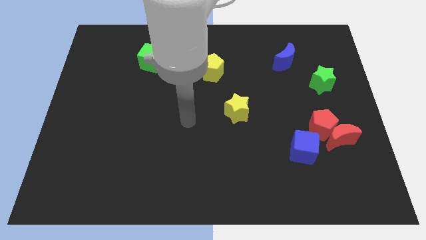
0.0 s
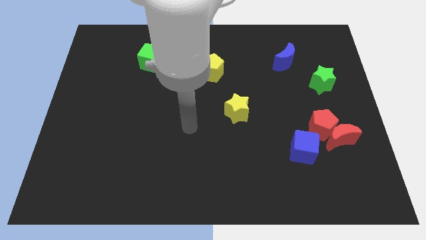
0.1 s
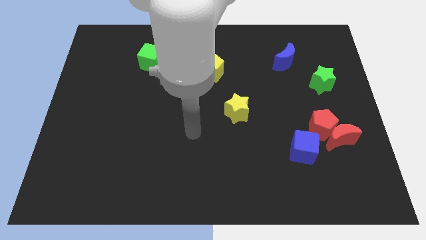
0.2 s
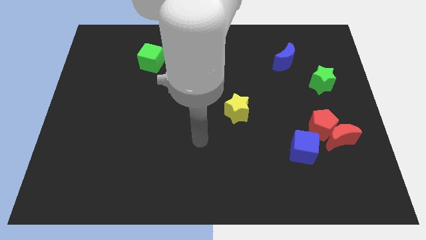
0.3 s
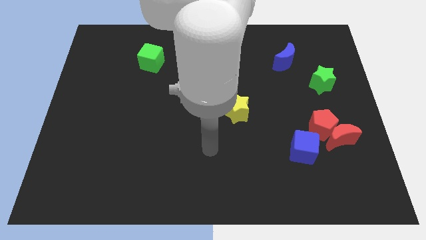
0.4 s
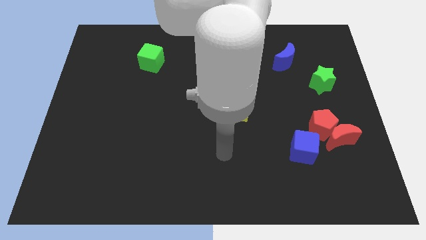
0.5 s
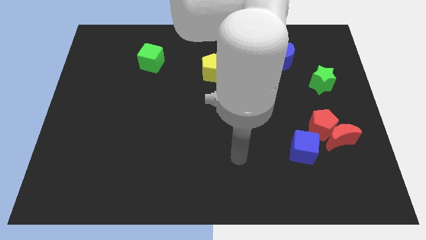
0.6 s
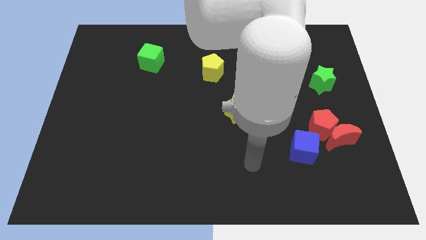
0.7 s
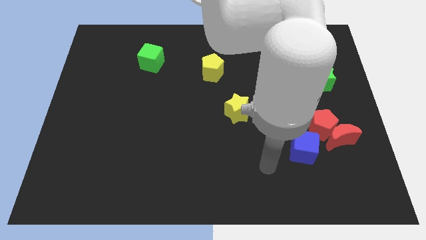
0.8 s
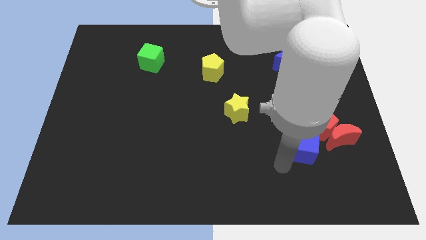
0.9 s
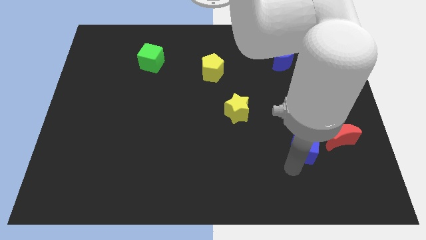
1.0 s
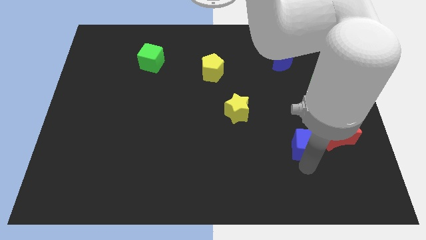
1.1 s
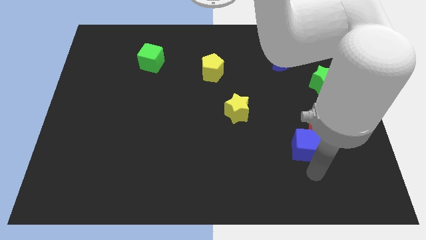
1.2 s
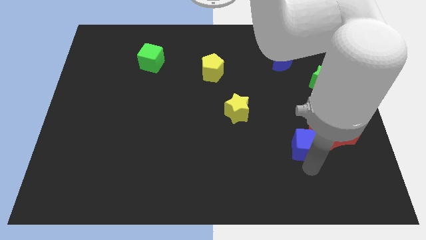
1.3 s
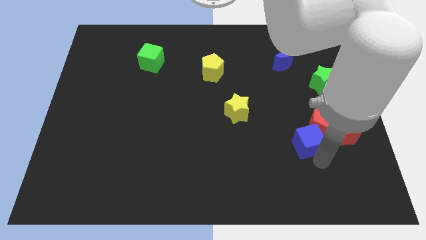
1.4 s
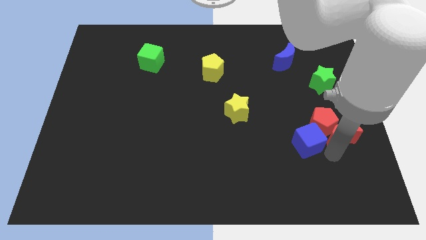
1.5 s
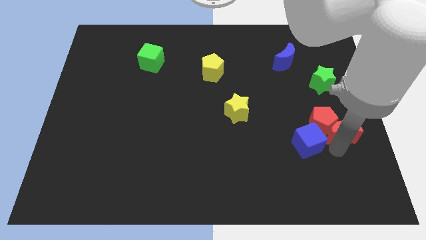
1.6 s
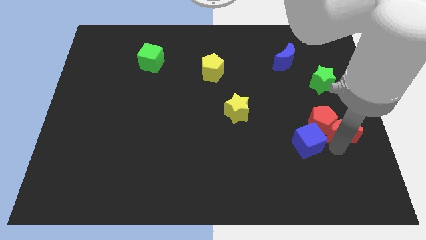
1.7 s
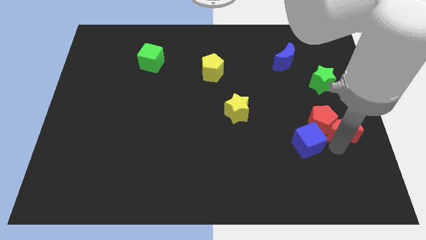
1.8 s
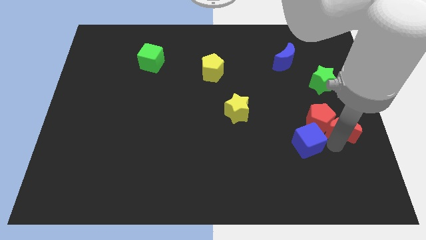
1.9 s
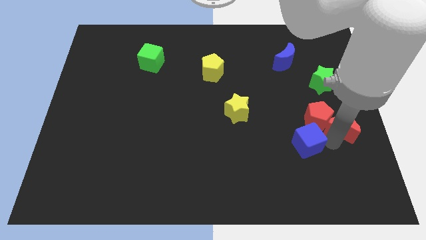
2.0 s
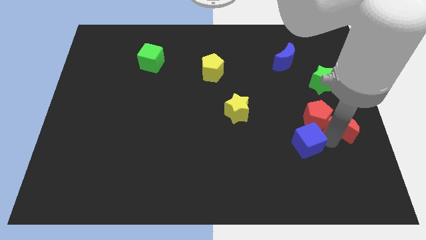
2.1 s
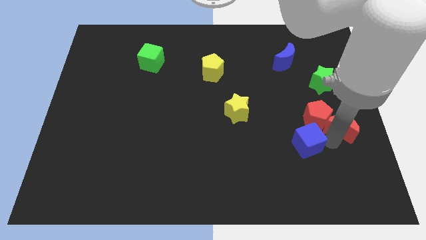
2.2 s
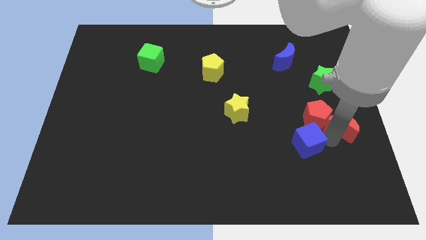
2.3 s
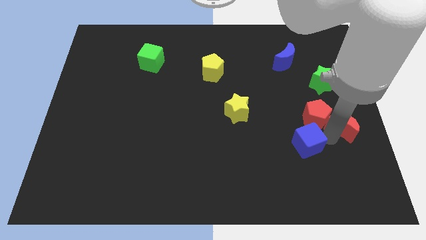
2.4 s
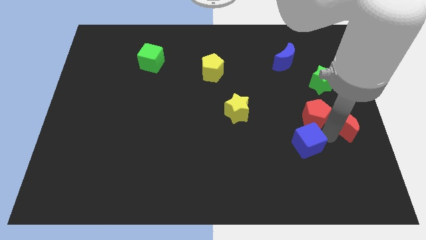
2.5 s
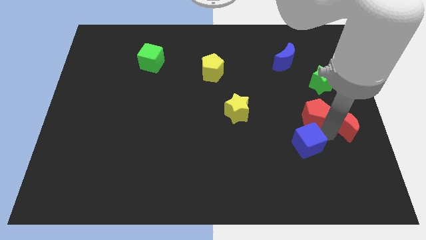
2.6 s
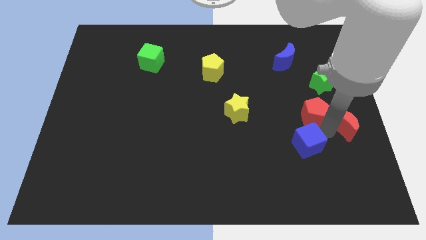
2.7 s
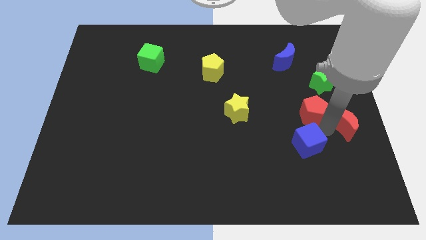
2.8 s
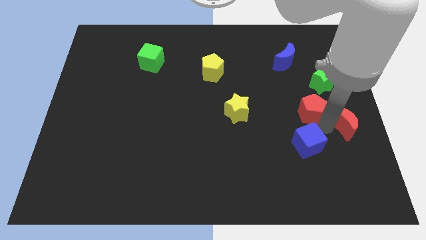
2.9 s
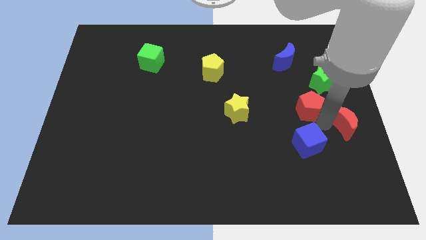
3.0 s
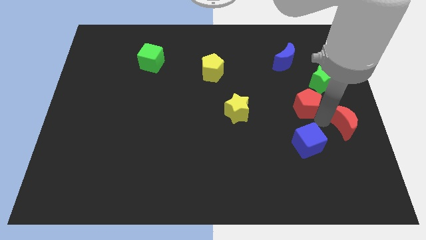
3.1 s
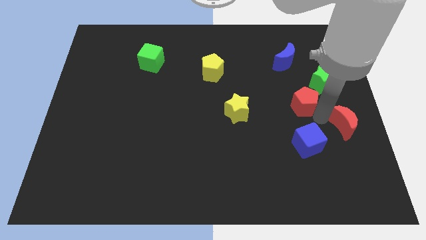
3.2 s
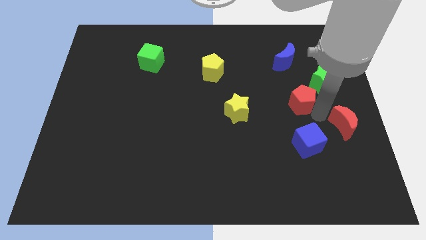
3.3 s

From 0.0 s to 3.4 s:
slide the red pentagon upwards slightly

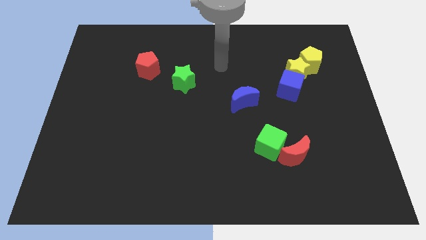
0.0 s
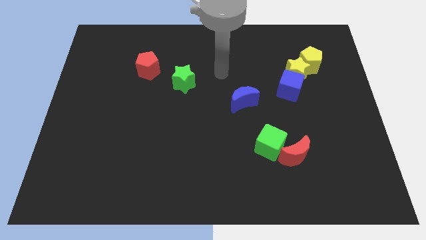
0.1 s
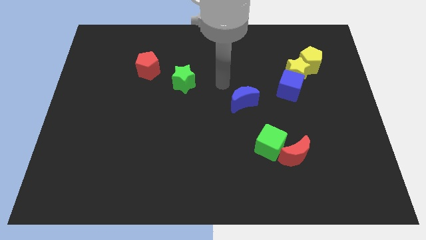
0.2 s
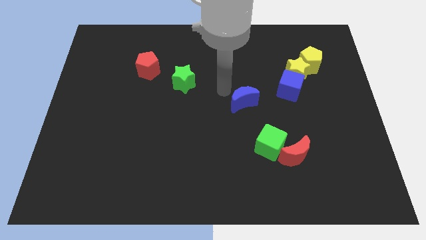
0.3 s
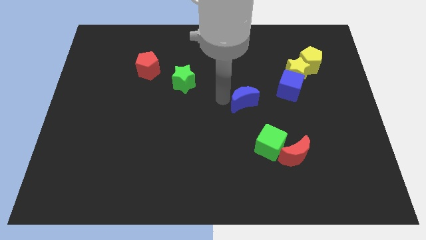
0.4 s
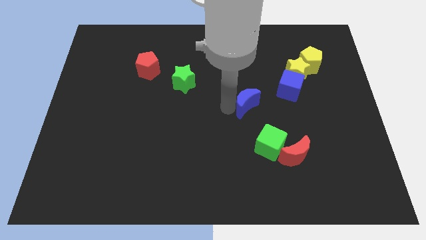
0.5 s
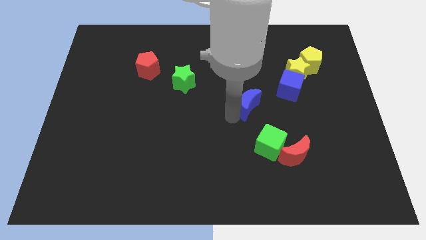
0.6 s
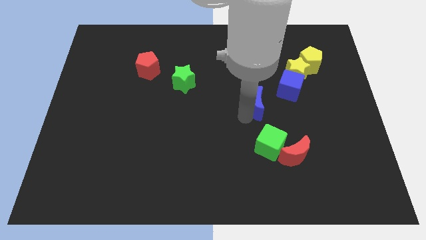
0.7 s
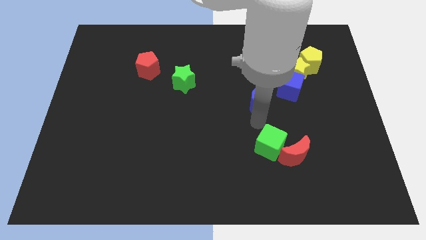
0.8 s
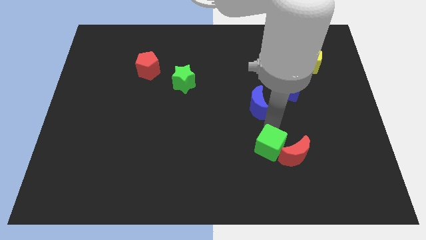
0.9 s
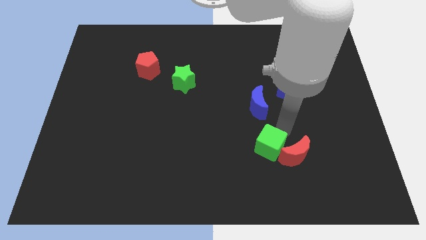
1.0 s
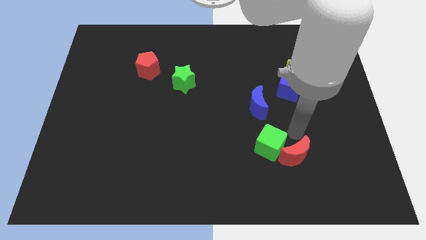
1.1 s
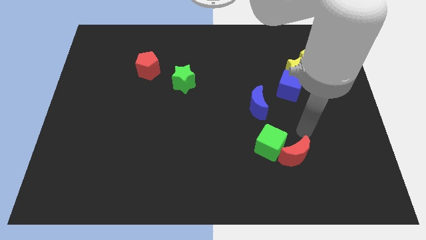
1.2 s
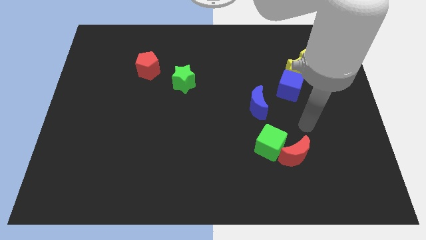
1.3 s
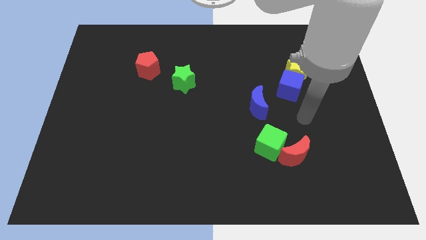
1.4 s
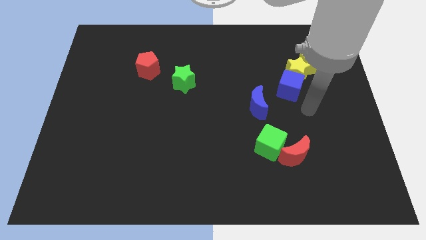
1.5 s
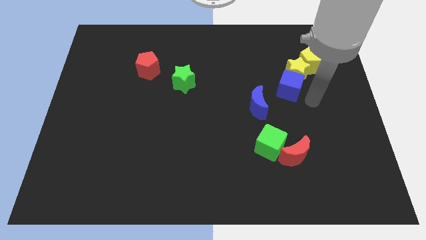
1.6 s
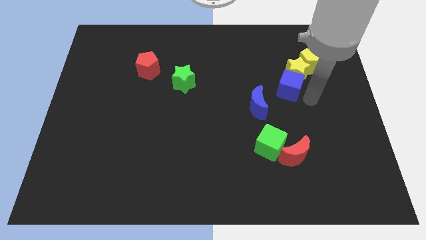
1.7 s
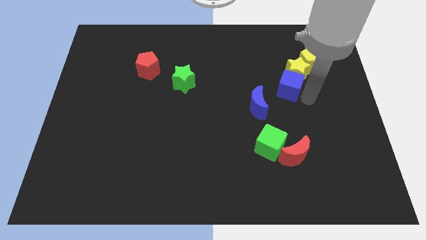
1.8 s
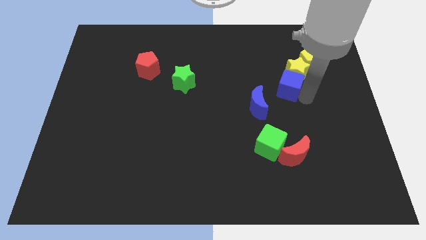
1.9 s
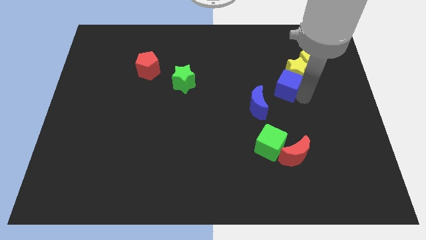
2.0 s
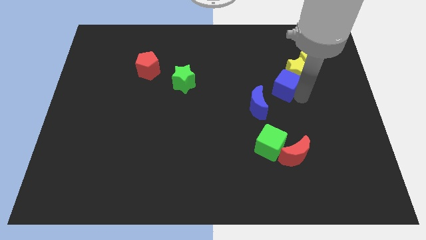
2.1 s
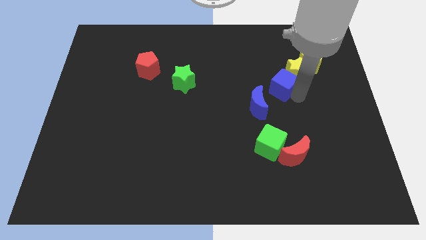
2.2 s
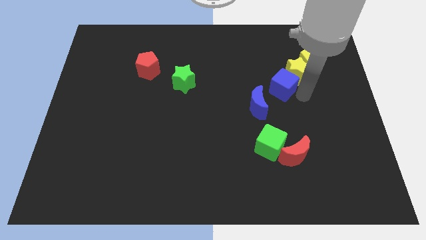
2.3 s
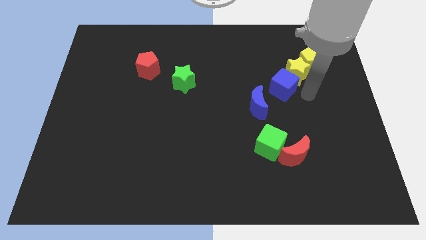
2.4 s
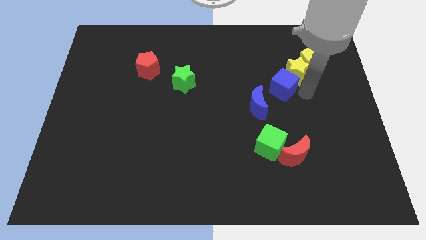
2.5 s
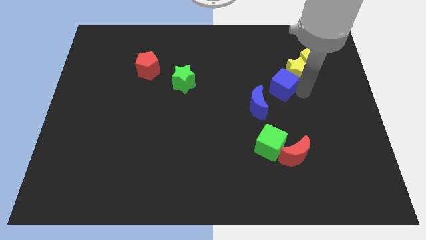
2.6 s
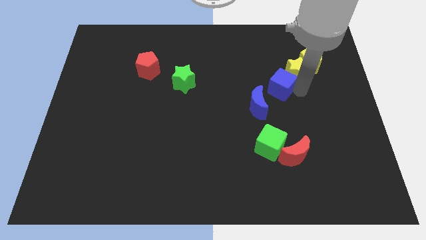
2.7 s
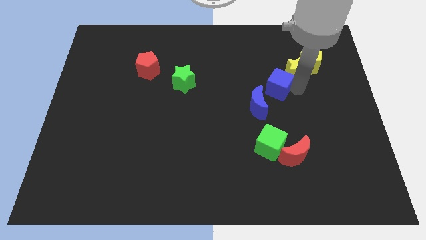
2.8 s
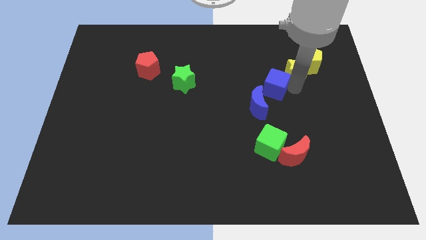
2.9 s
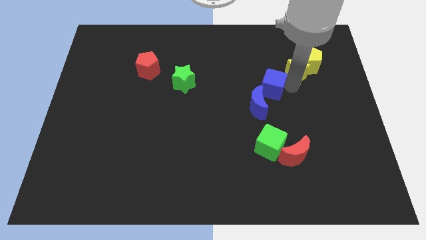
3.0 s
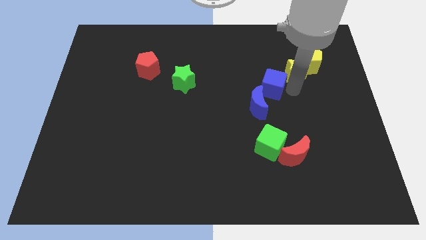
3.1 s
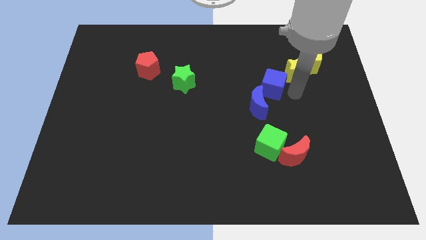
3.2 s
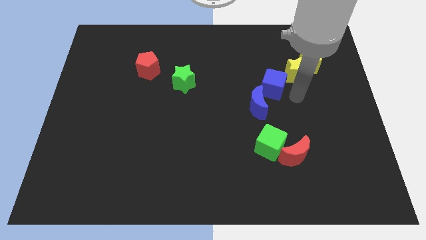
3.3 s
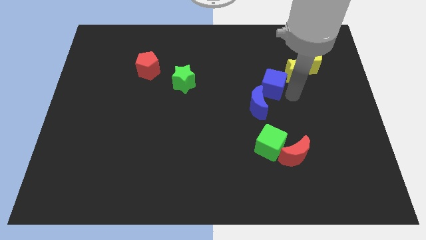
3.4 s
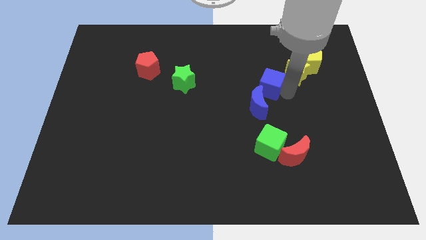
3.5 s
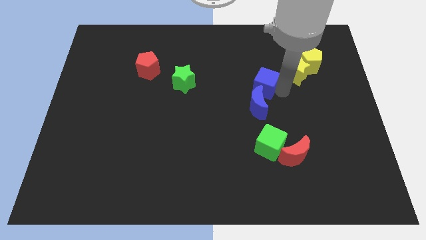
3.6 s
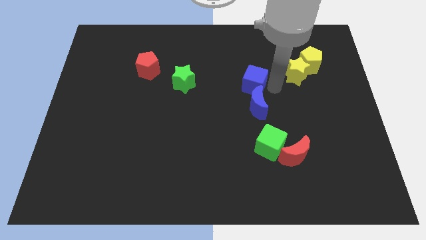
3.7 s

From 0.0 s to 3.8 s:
slightly push the blue cube to the left

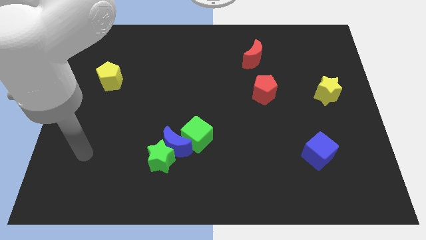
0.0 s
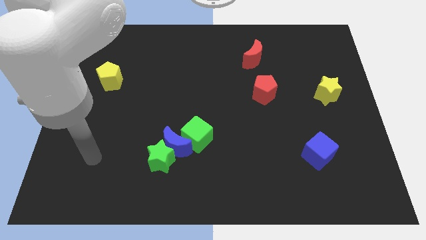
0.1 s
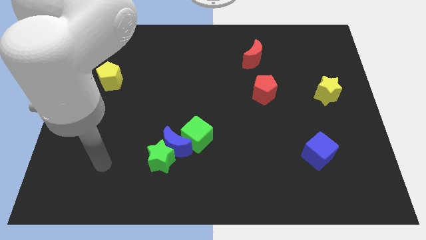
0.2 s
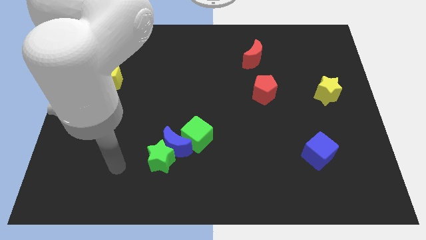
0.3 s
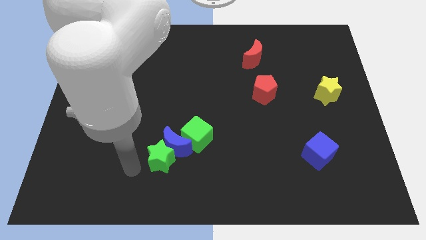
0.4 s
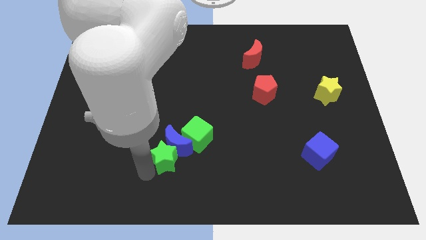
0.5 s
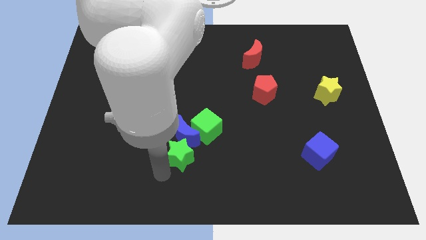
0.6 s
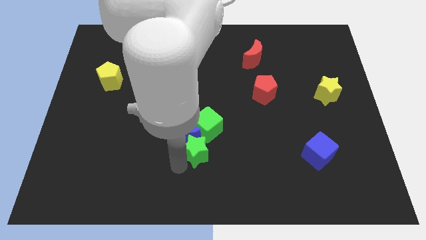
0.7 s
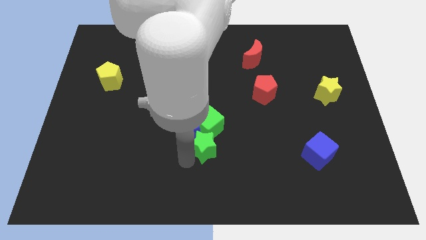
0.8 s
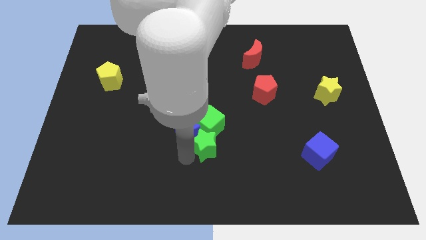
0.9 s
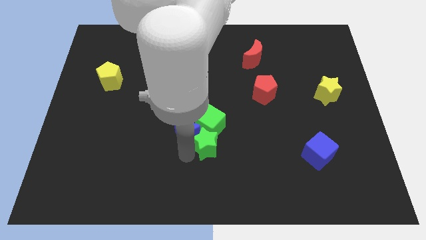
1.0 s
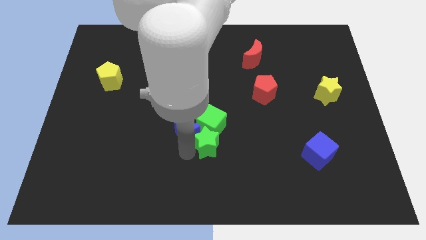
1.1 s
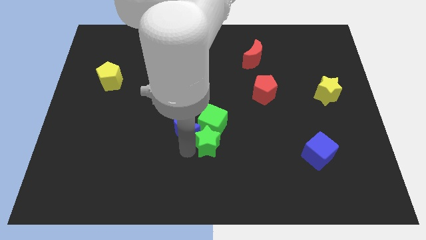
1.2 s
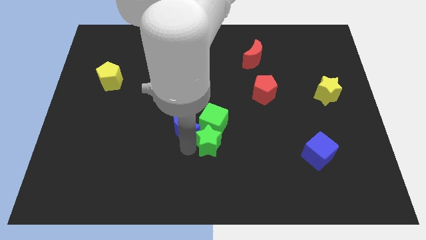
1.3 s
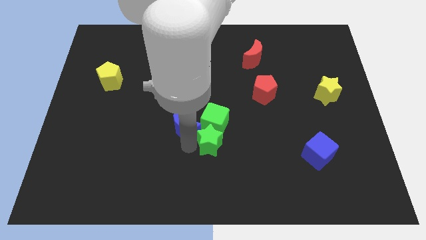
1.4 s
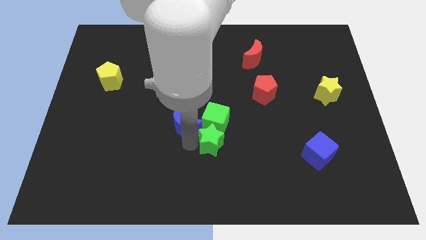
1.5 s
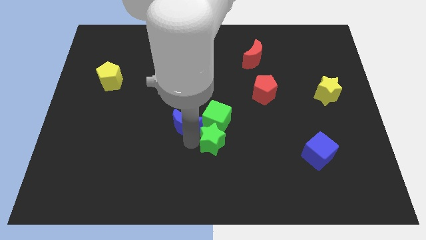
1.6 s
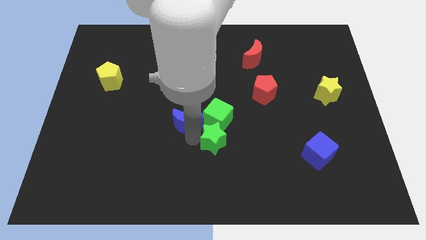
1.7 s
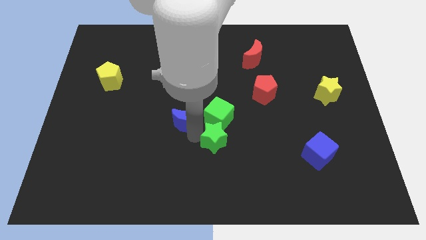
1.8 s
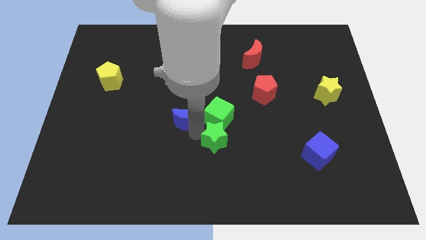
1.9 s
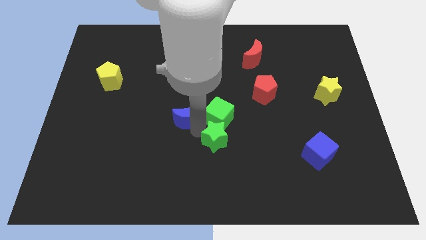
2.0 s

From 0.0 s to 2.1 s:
slightly move the blue moon up
